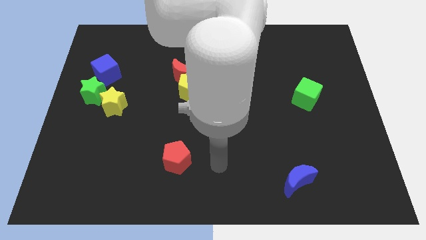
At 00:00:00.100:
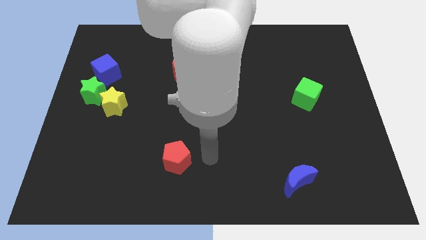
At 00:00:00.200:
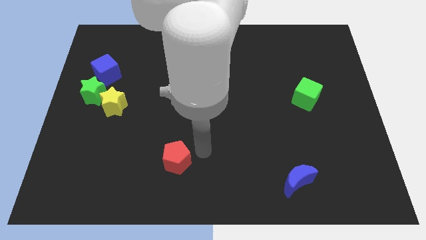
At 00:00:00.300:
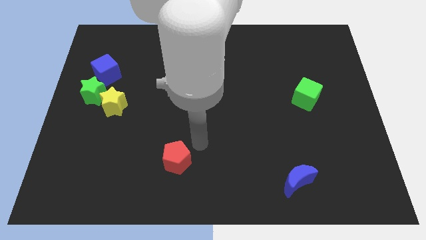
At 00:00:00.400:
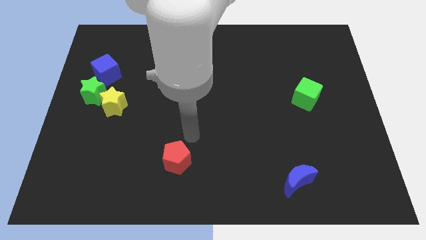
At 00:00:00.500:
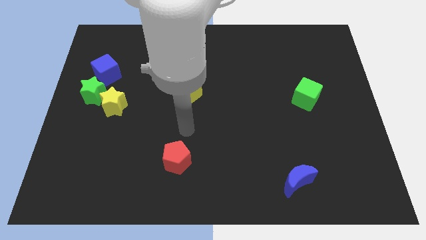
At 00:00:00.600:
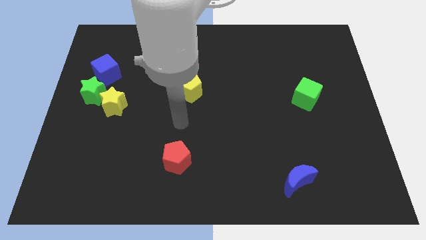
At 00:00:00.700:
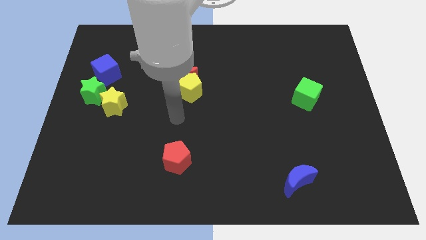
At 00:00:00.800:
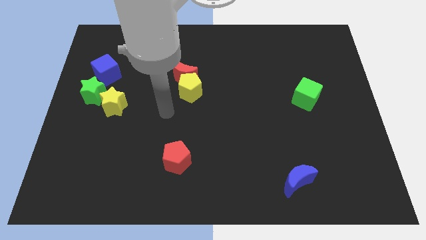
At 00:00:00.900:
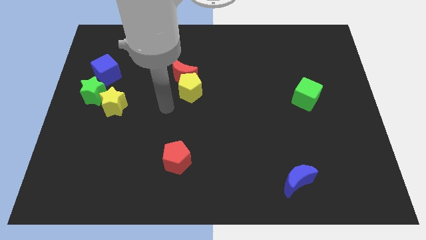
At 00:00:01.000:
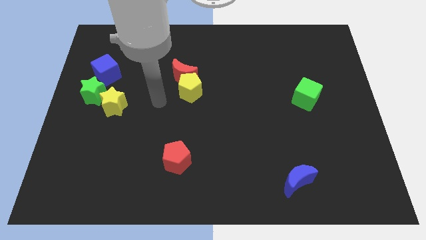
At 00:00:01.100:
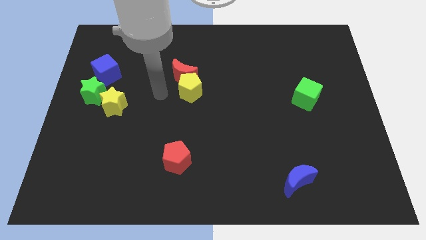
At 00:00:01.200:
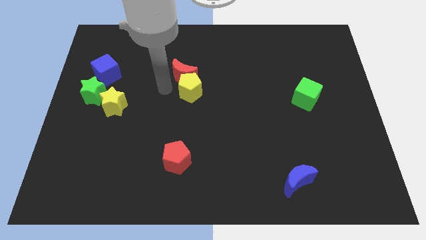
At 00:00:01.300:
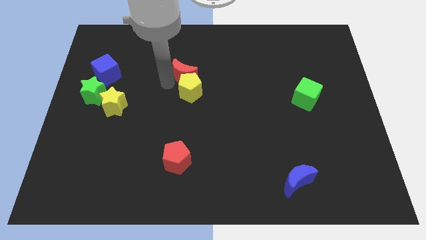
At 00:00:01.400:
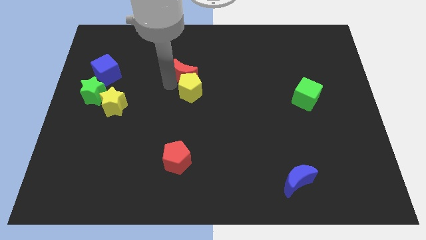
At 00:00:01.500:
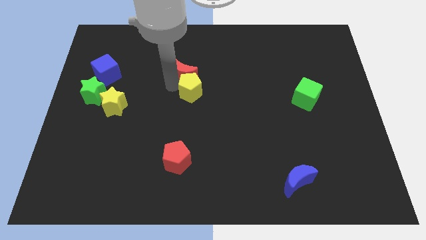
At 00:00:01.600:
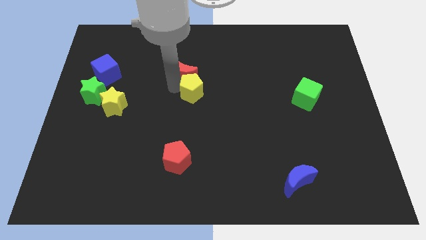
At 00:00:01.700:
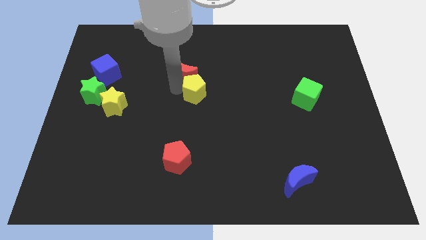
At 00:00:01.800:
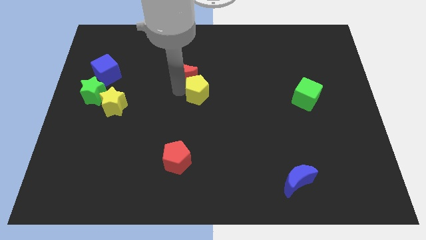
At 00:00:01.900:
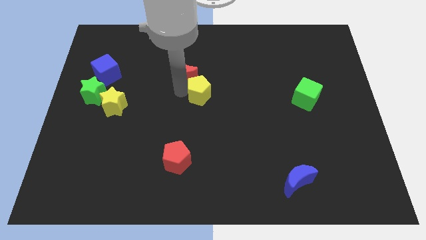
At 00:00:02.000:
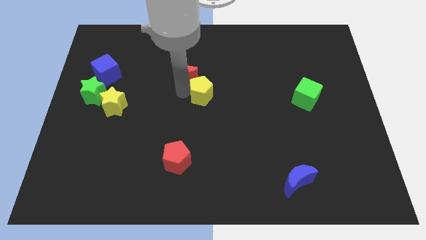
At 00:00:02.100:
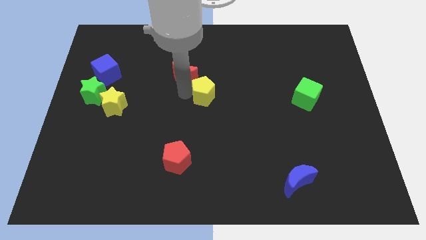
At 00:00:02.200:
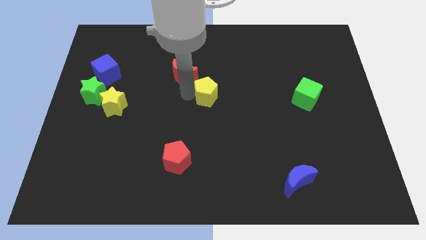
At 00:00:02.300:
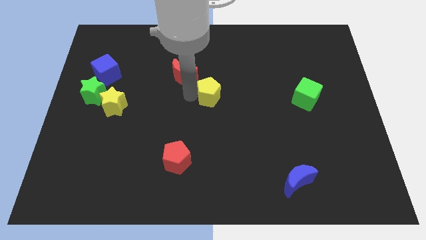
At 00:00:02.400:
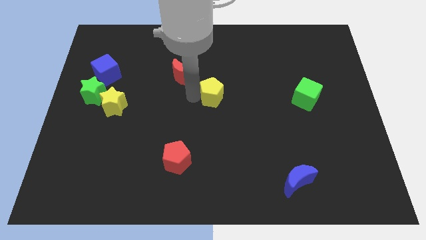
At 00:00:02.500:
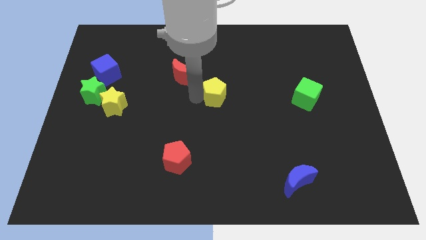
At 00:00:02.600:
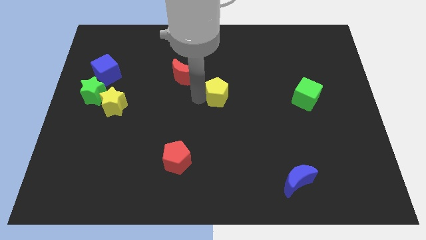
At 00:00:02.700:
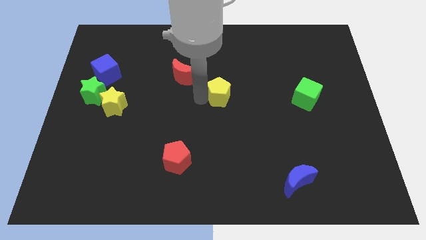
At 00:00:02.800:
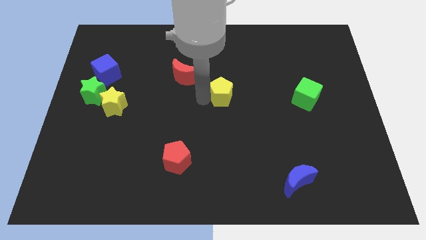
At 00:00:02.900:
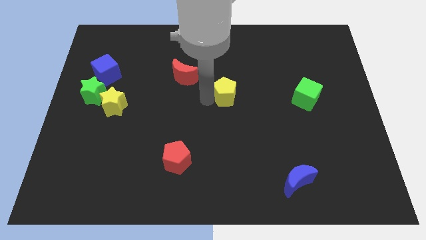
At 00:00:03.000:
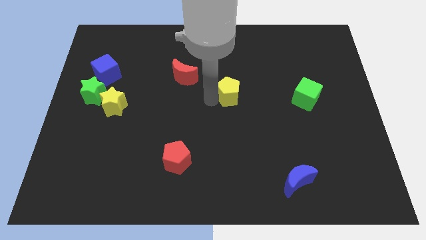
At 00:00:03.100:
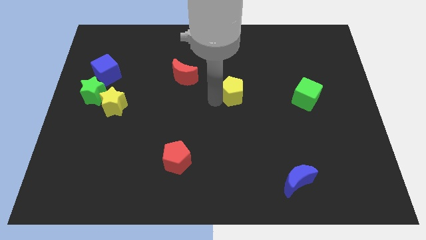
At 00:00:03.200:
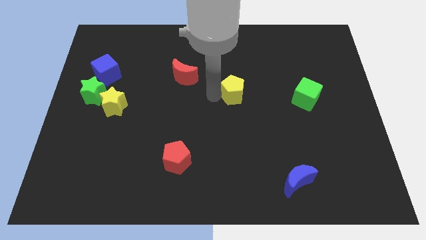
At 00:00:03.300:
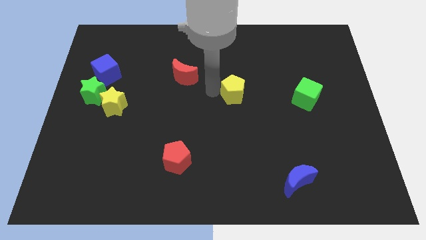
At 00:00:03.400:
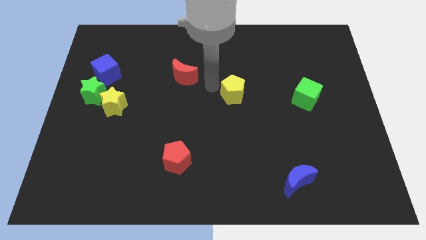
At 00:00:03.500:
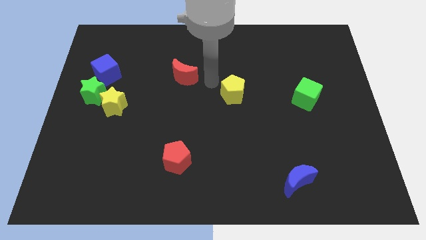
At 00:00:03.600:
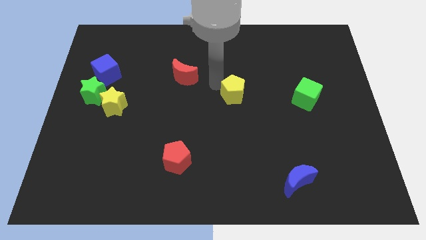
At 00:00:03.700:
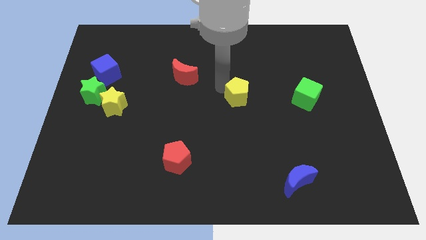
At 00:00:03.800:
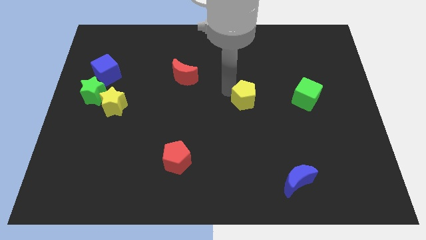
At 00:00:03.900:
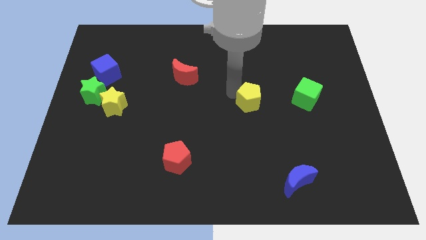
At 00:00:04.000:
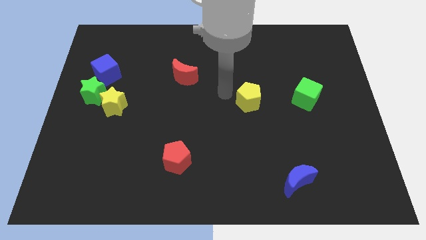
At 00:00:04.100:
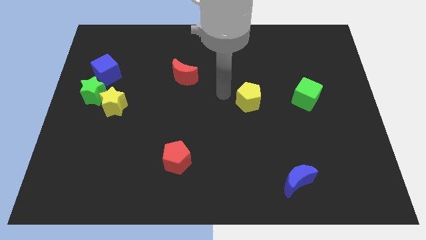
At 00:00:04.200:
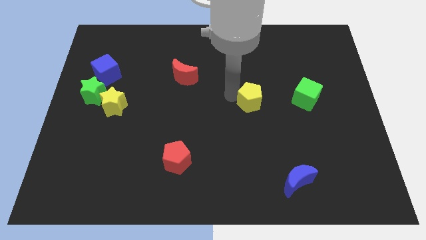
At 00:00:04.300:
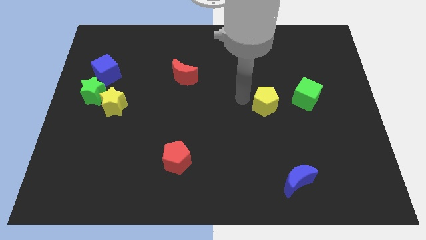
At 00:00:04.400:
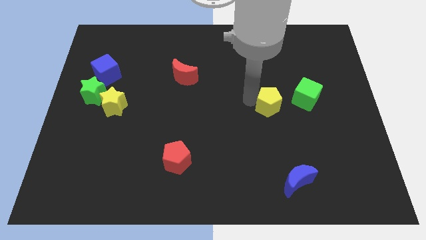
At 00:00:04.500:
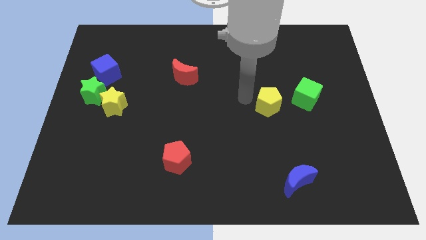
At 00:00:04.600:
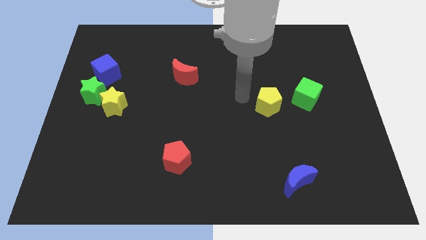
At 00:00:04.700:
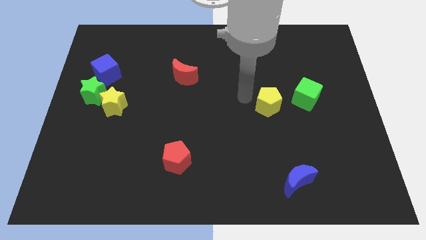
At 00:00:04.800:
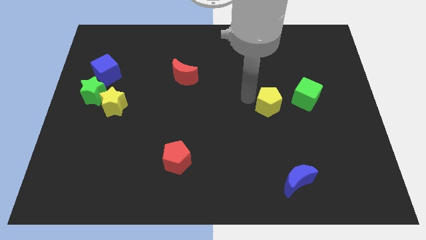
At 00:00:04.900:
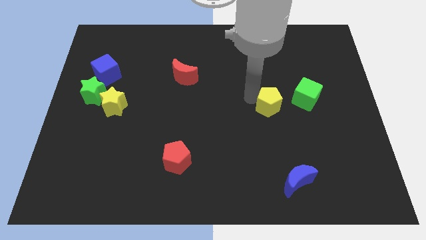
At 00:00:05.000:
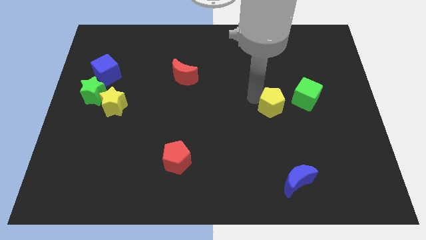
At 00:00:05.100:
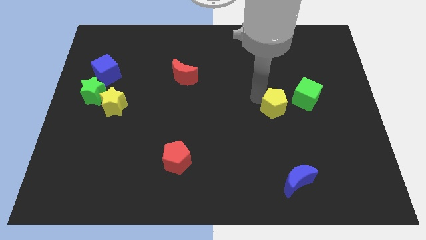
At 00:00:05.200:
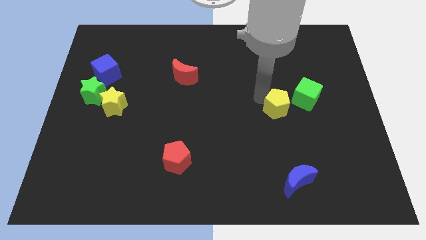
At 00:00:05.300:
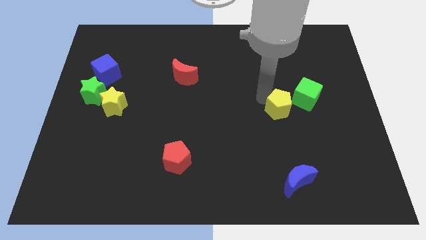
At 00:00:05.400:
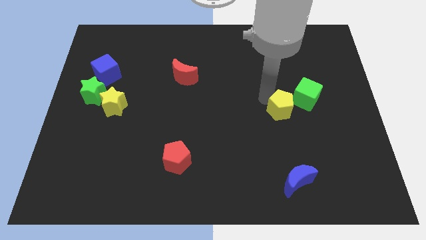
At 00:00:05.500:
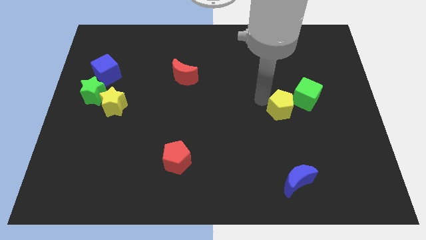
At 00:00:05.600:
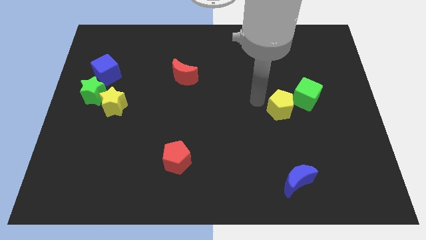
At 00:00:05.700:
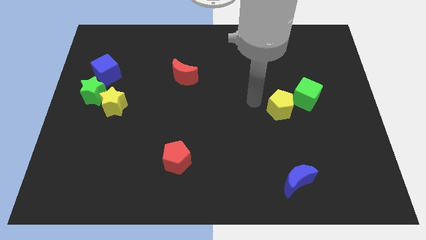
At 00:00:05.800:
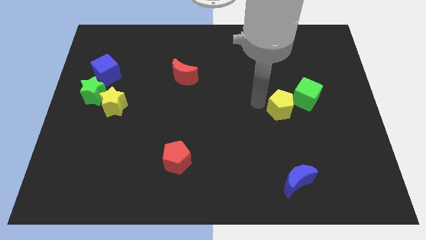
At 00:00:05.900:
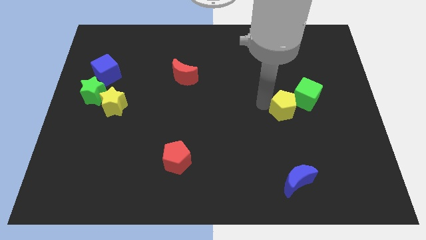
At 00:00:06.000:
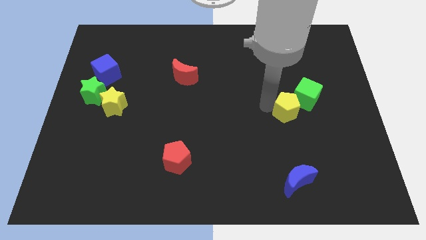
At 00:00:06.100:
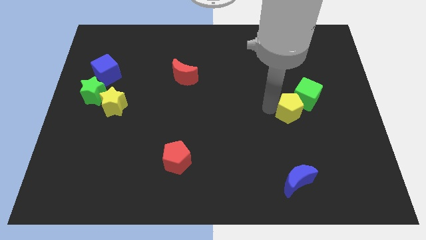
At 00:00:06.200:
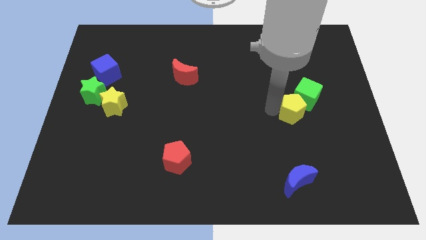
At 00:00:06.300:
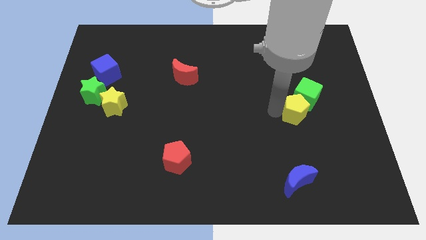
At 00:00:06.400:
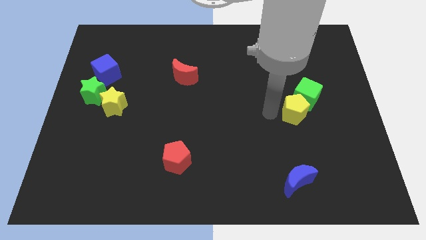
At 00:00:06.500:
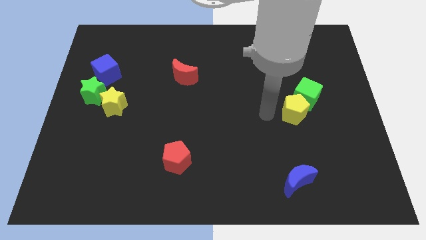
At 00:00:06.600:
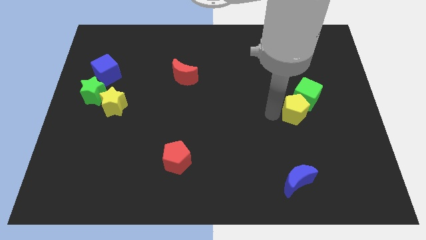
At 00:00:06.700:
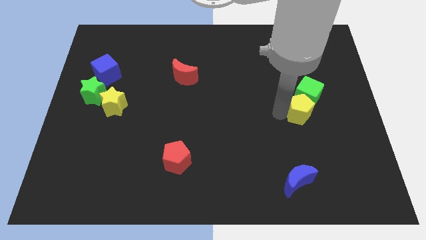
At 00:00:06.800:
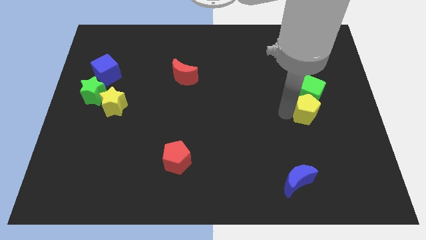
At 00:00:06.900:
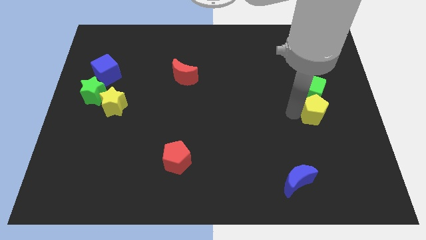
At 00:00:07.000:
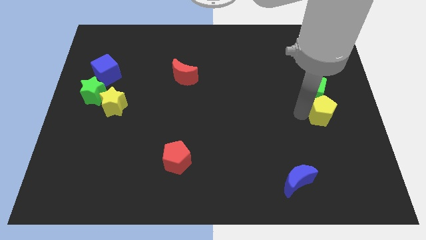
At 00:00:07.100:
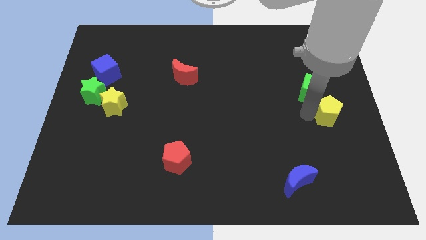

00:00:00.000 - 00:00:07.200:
push the yellow pentagon to the right side
